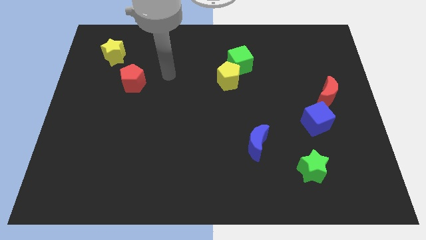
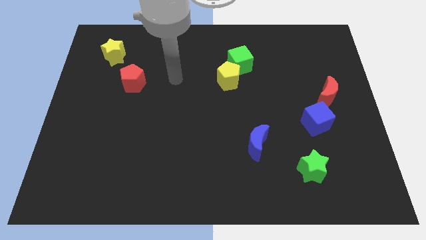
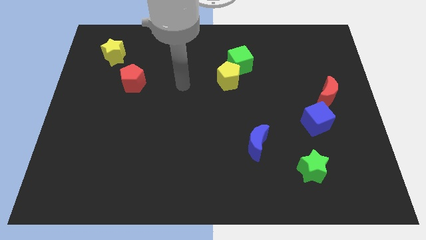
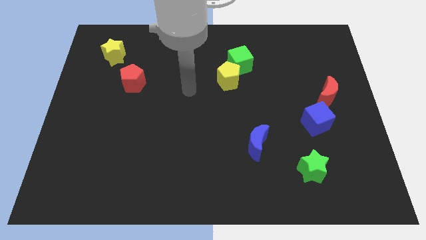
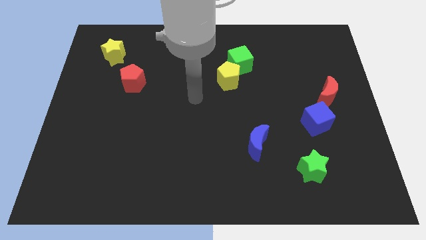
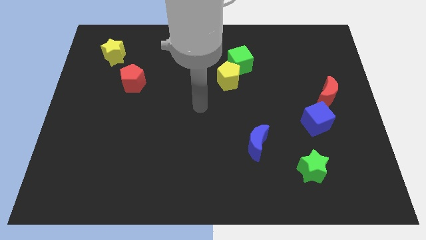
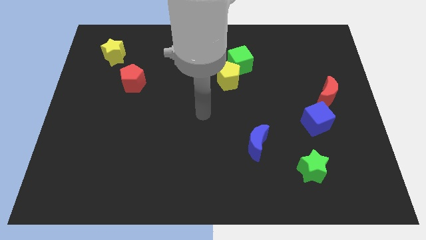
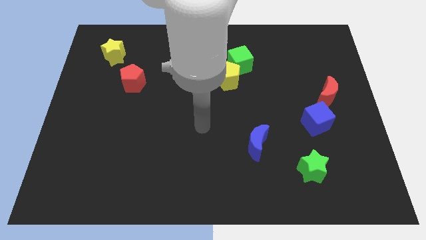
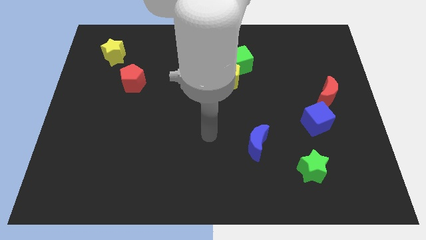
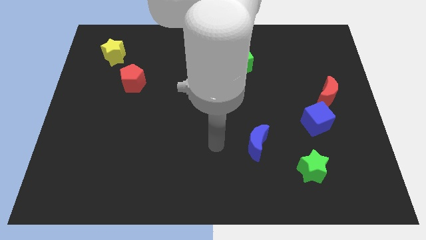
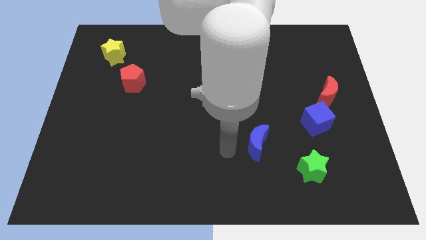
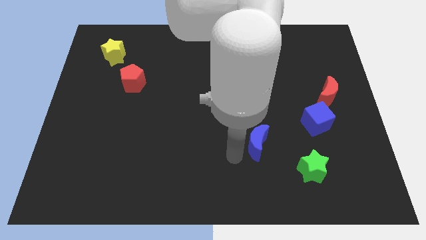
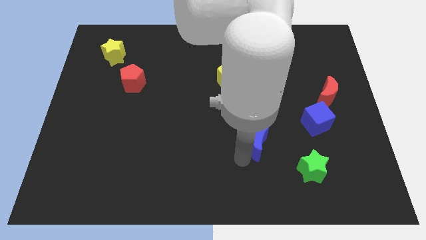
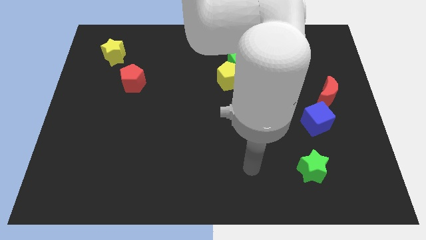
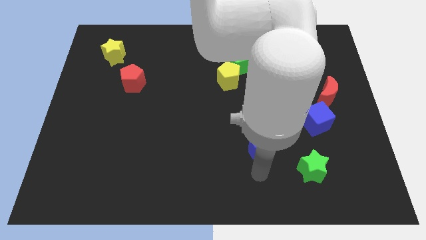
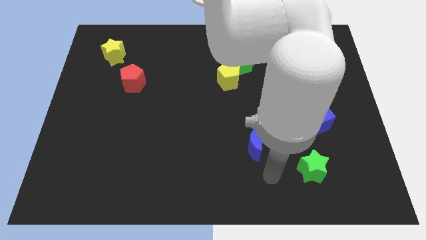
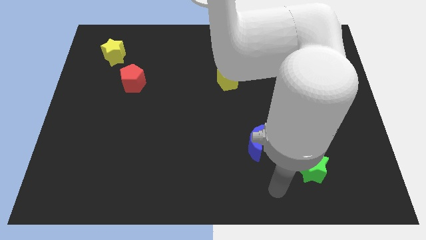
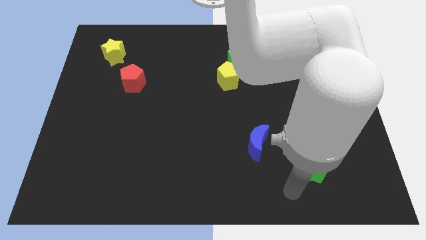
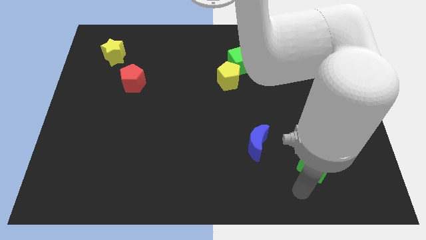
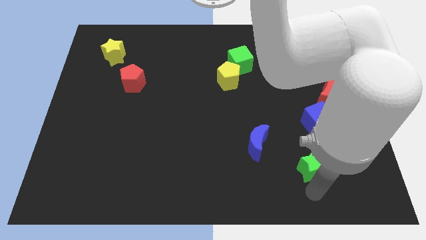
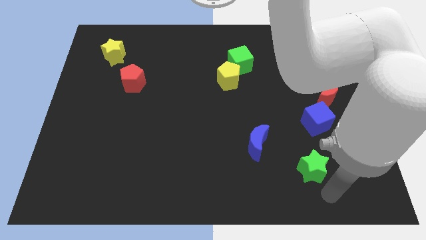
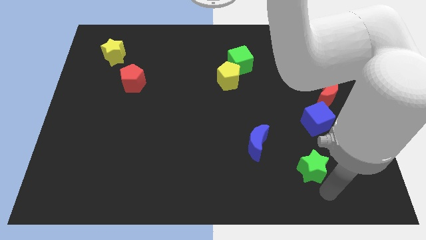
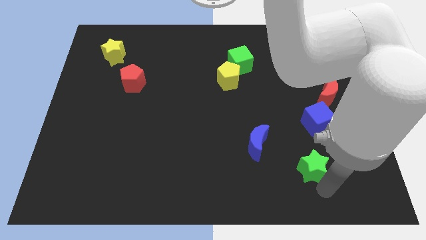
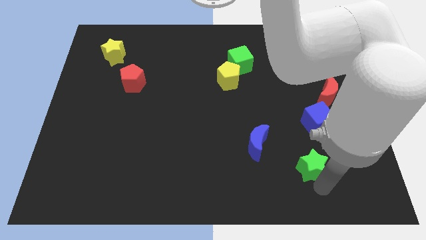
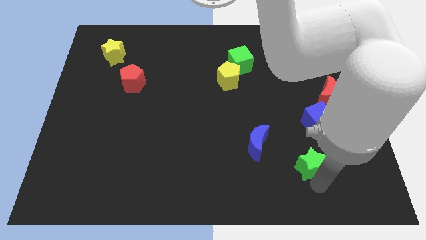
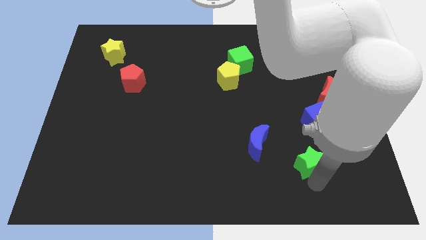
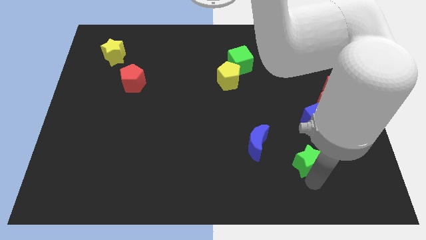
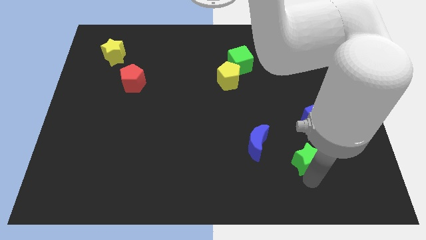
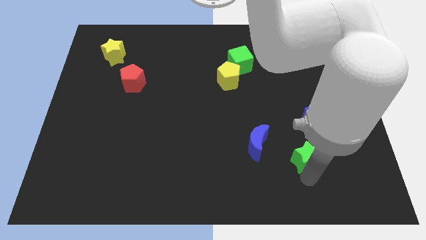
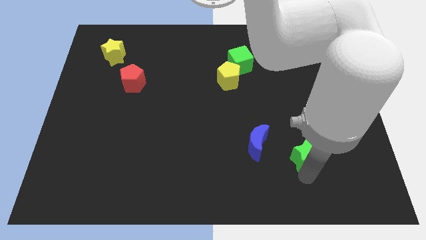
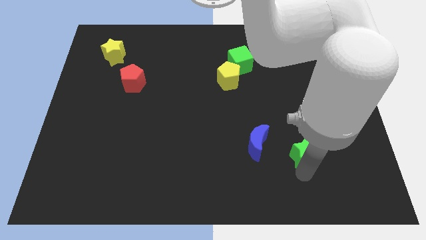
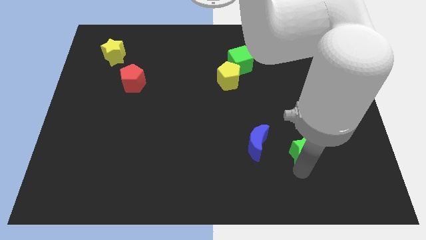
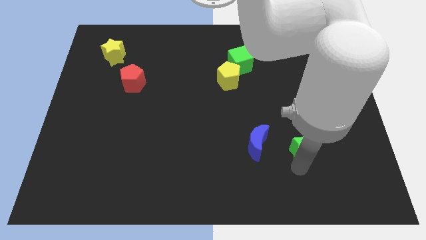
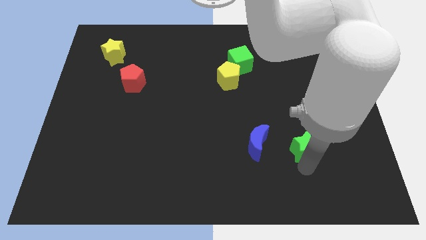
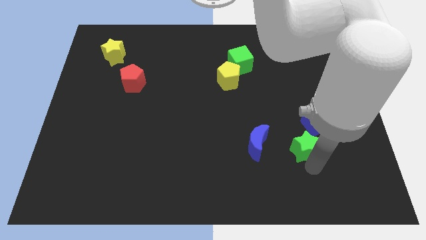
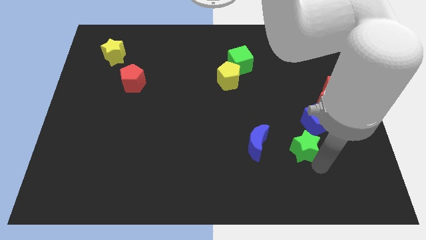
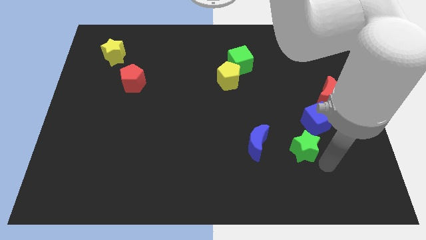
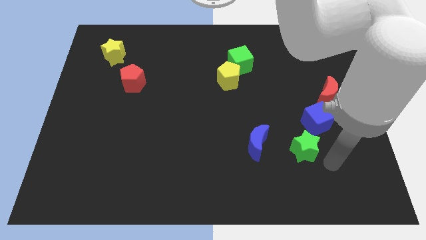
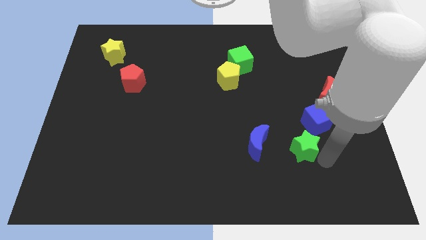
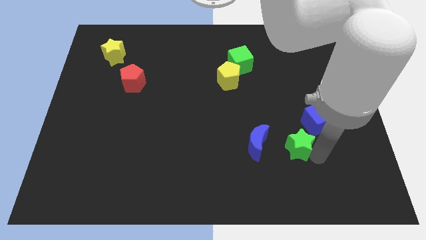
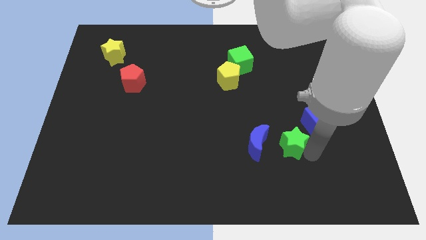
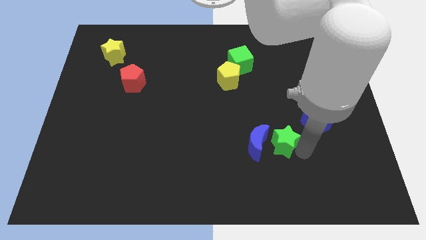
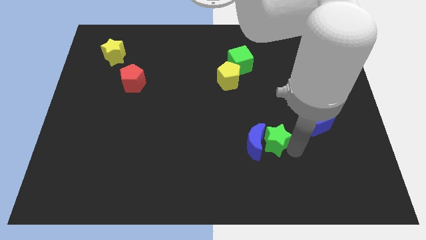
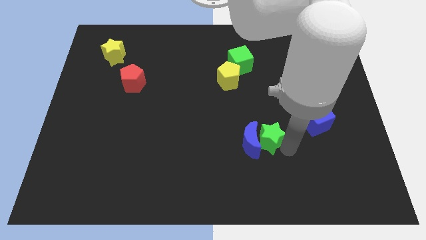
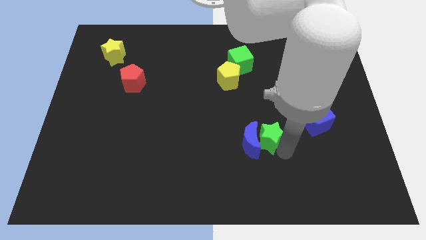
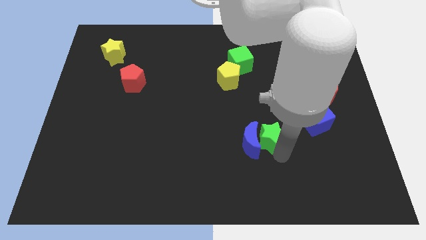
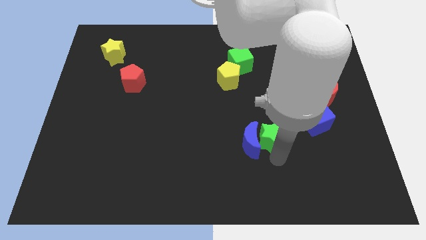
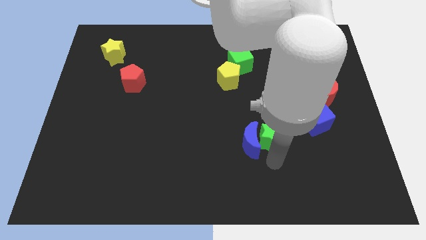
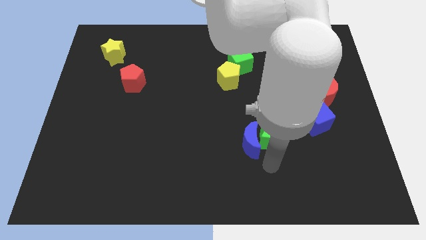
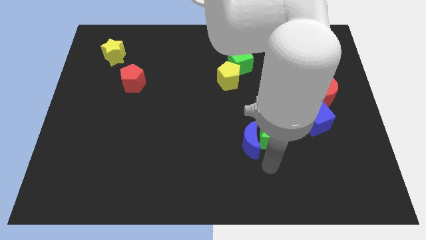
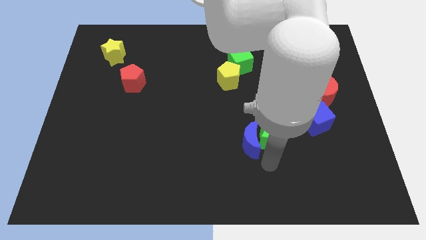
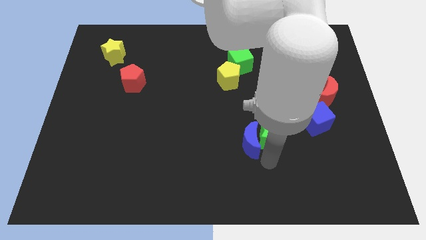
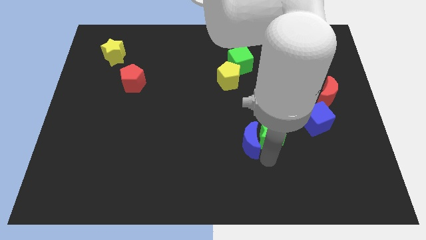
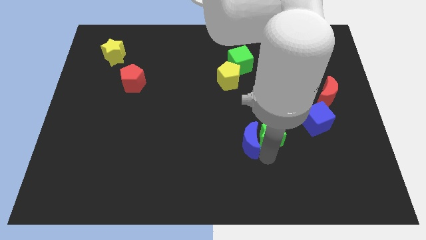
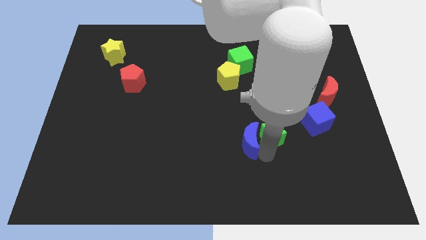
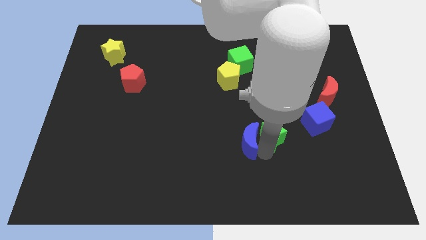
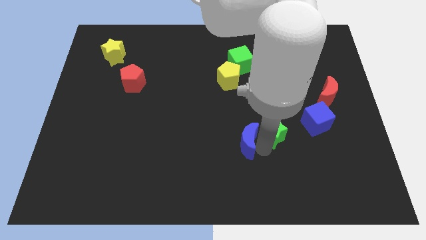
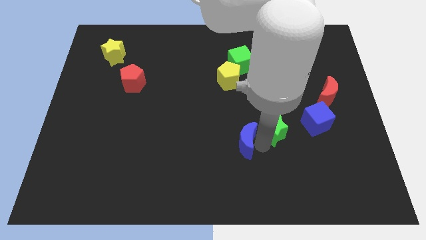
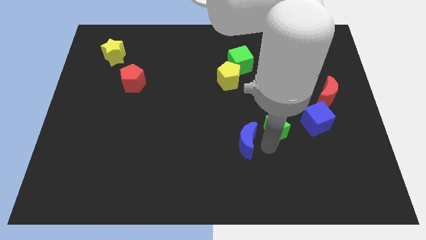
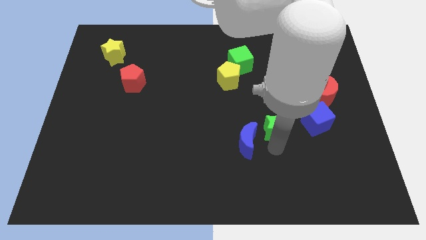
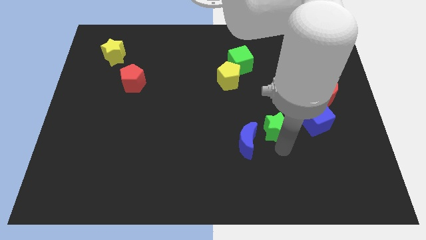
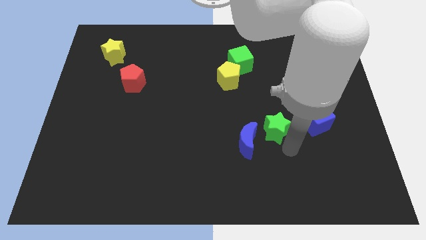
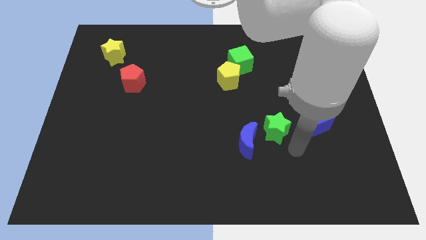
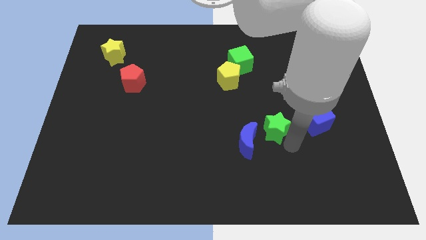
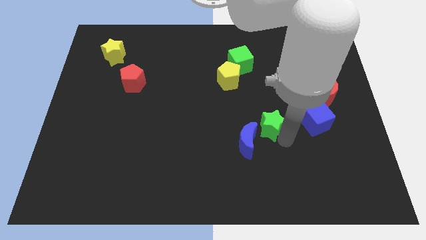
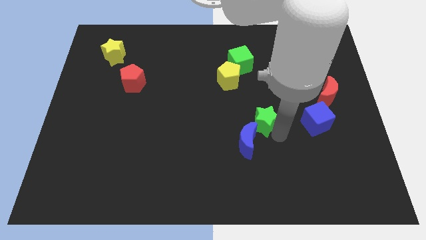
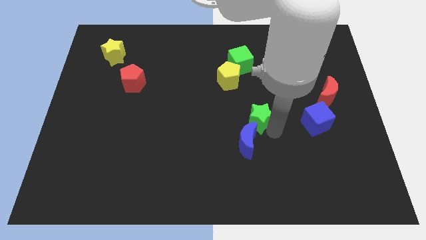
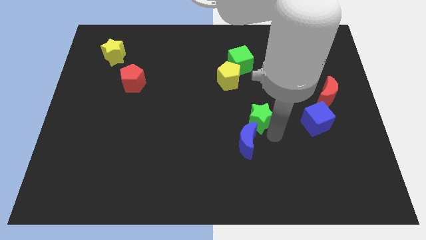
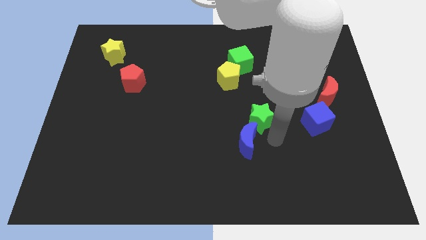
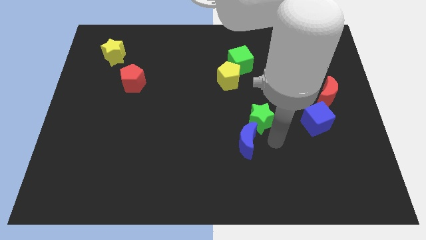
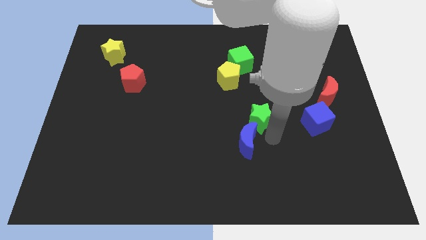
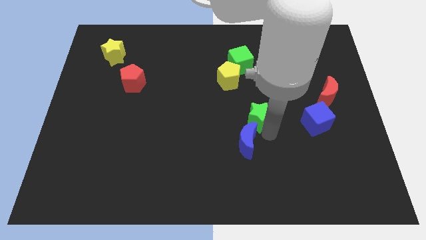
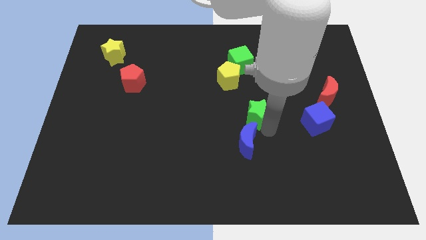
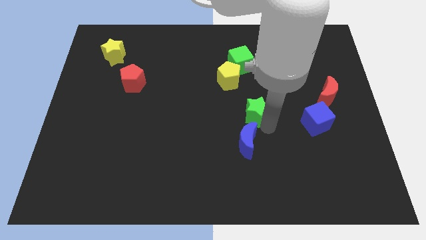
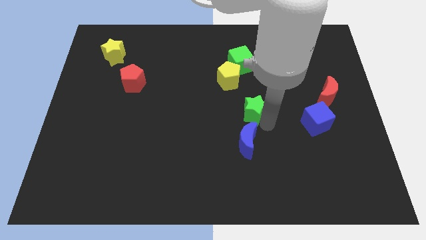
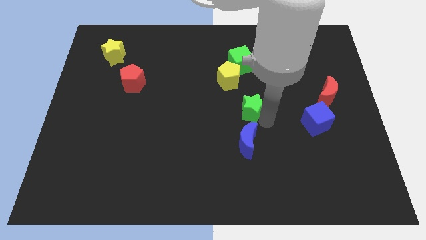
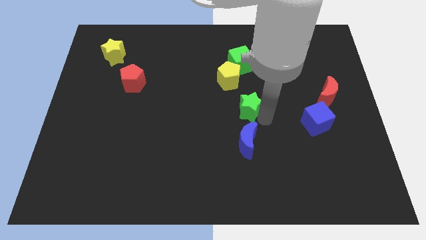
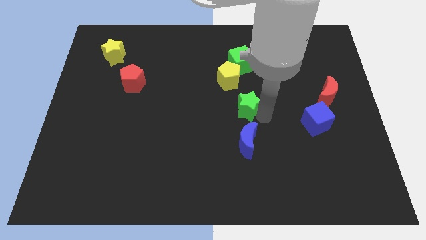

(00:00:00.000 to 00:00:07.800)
slide the green star upwards and then left

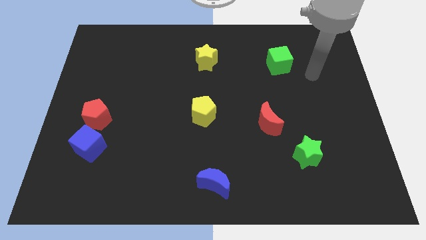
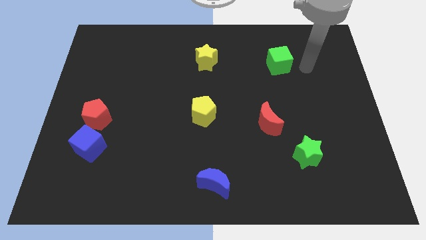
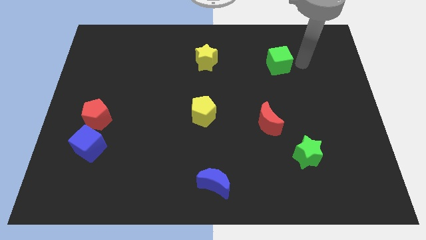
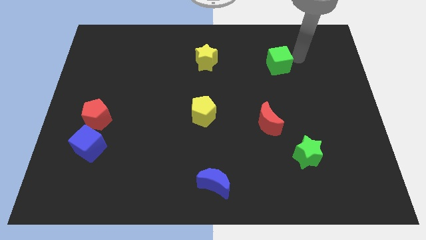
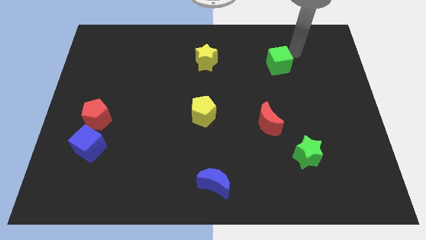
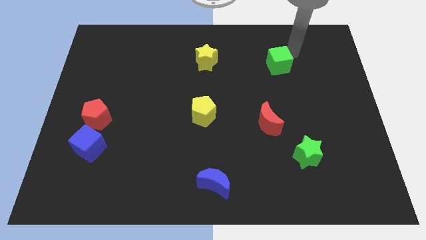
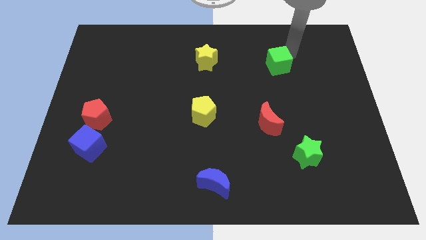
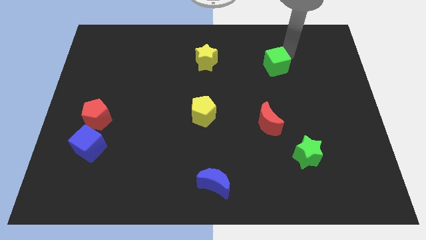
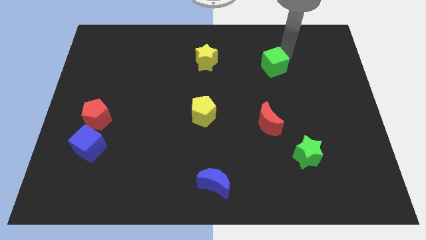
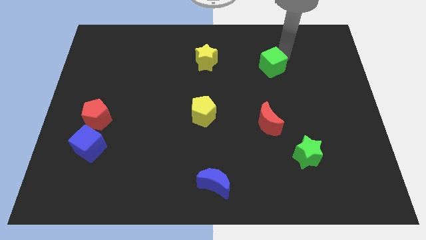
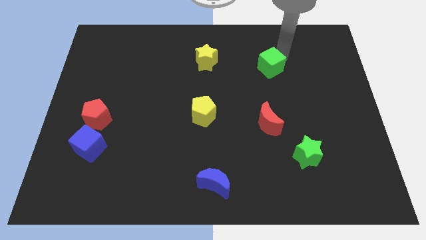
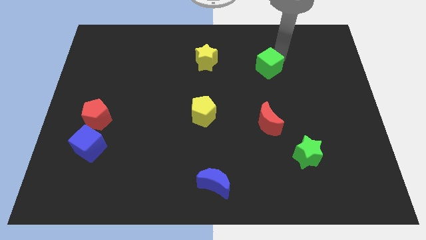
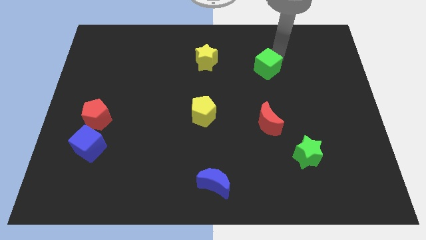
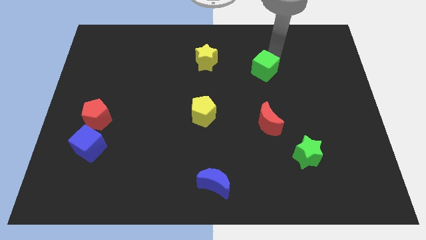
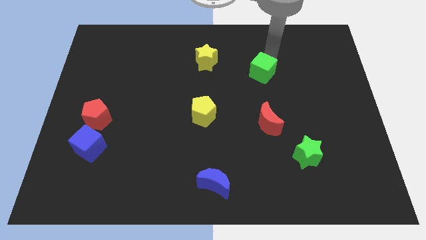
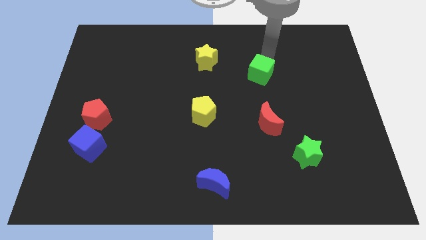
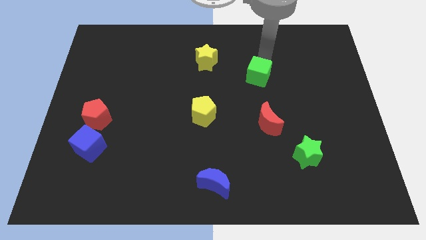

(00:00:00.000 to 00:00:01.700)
slightly push the green cube down and to the left
